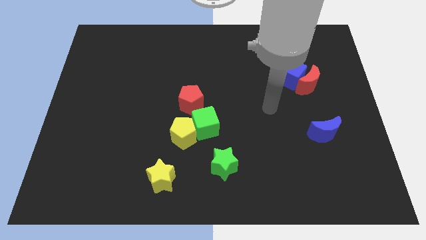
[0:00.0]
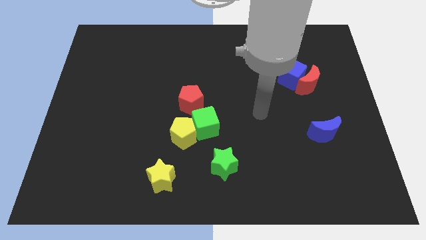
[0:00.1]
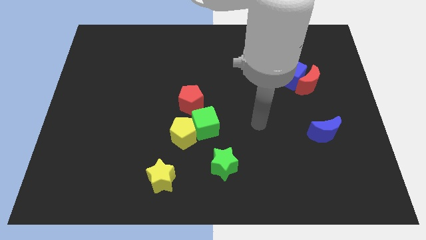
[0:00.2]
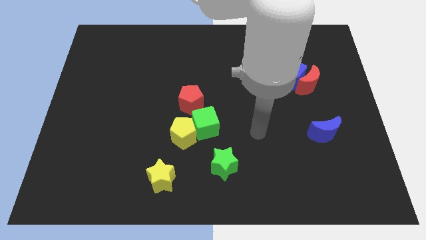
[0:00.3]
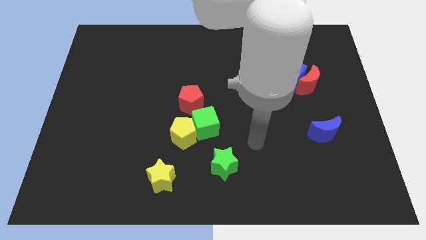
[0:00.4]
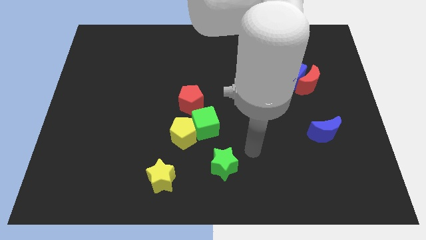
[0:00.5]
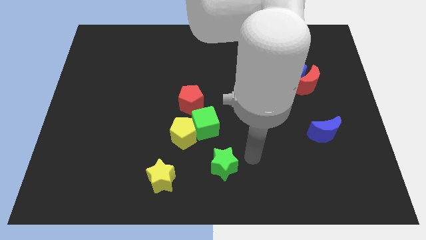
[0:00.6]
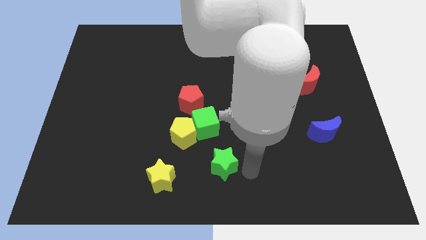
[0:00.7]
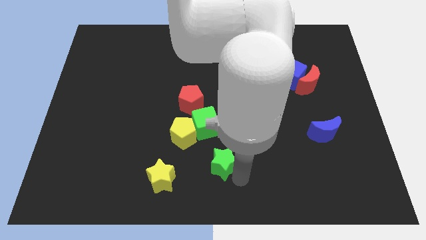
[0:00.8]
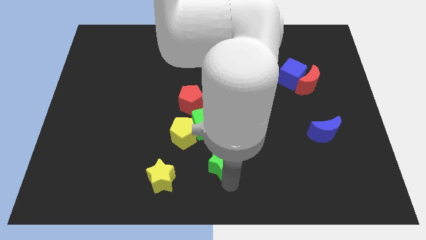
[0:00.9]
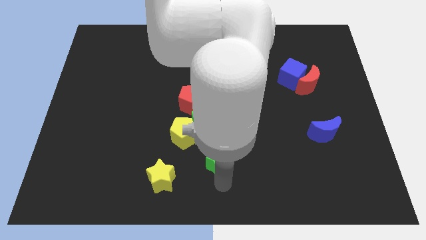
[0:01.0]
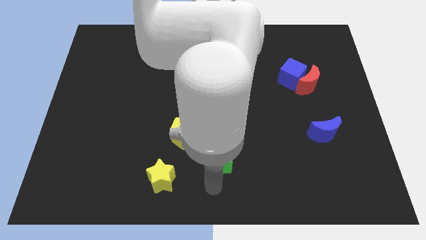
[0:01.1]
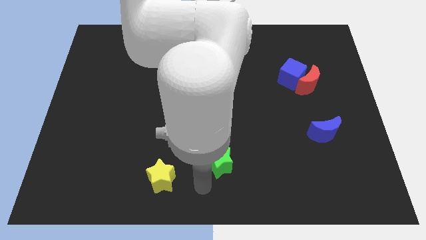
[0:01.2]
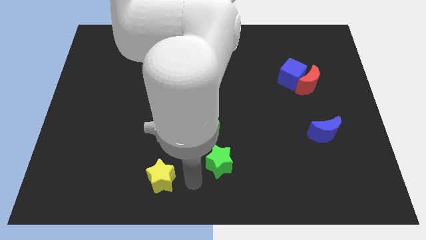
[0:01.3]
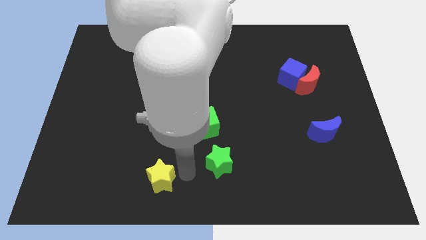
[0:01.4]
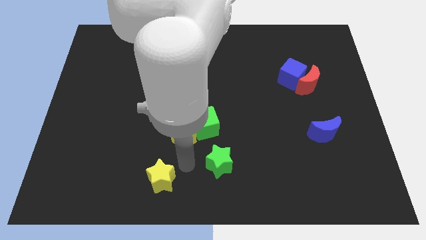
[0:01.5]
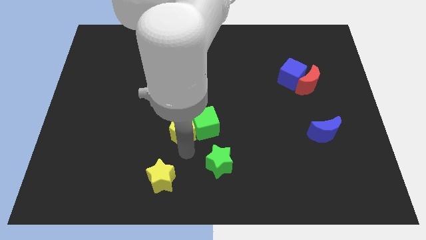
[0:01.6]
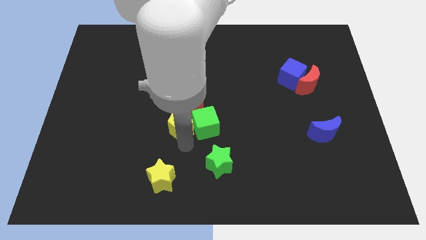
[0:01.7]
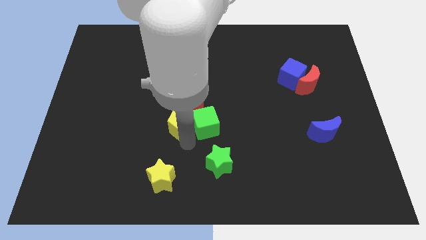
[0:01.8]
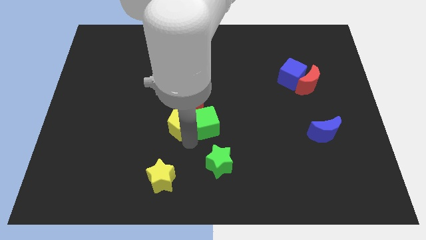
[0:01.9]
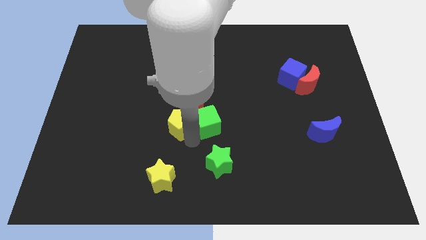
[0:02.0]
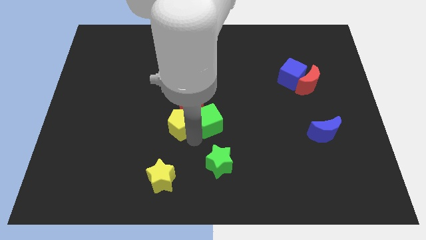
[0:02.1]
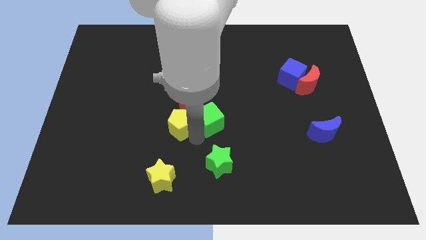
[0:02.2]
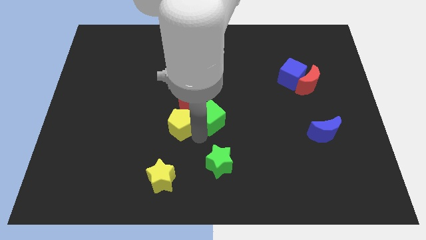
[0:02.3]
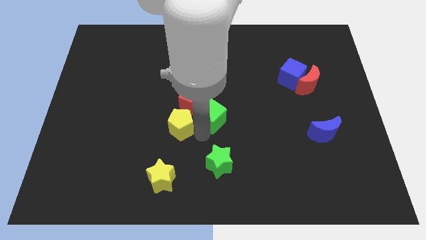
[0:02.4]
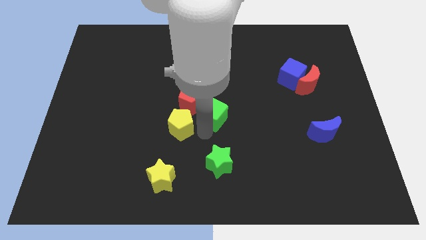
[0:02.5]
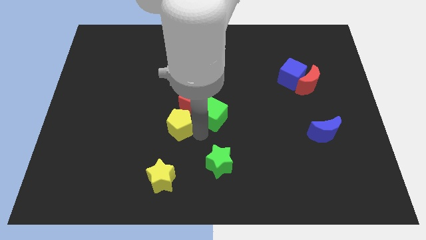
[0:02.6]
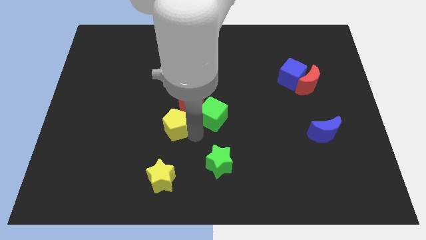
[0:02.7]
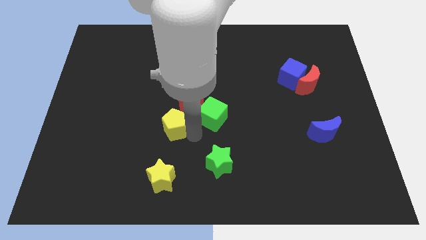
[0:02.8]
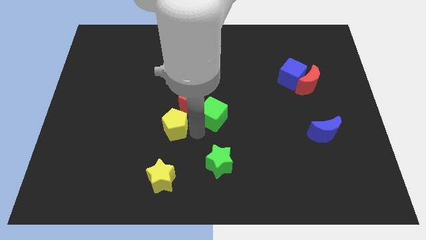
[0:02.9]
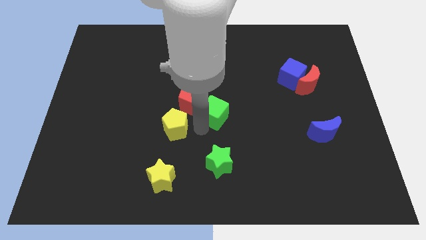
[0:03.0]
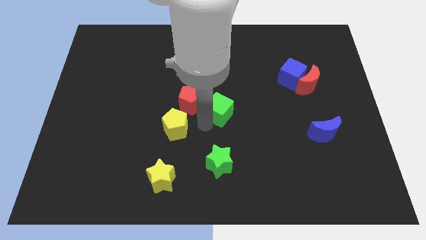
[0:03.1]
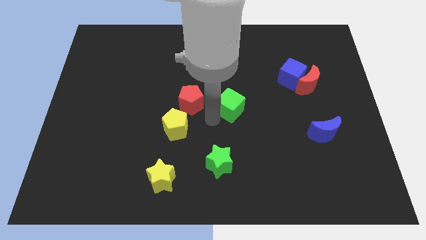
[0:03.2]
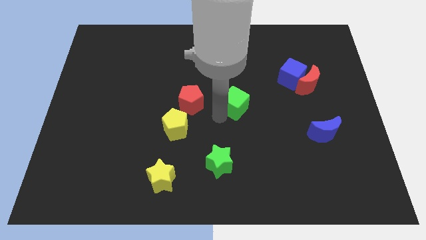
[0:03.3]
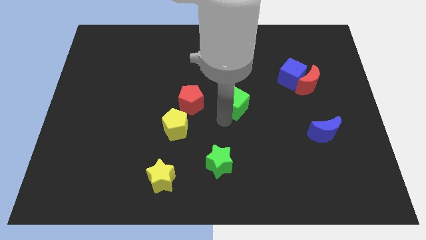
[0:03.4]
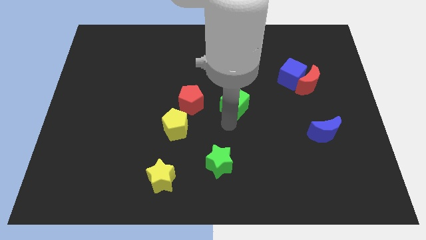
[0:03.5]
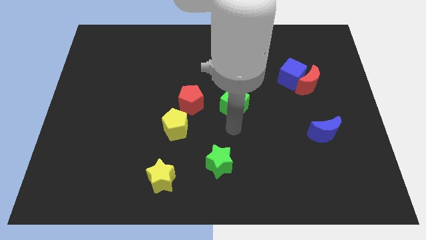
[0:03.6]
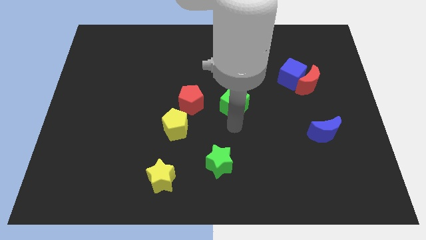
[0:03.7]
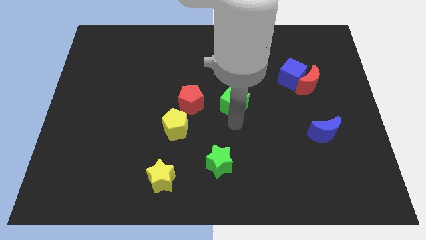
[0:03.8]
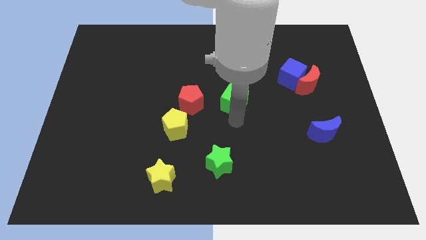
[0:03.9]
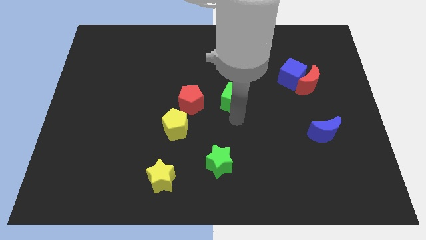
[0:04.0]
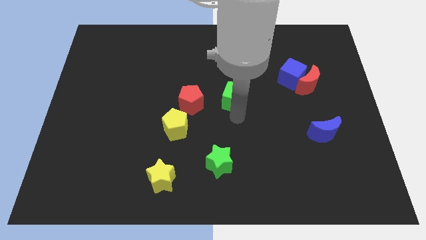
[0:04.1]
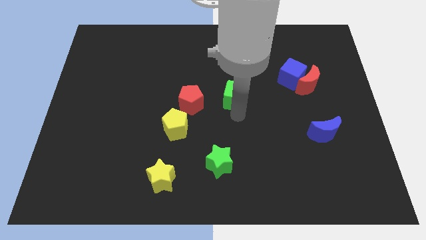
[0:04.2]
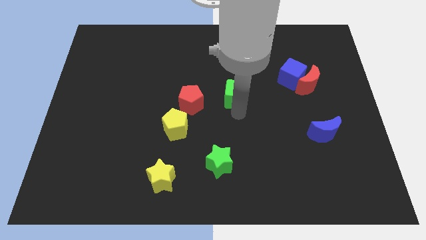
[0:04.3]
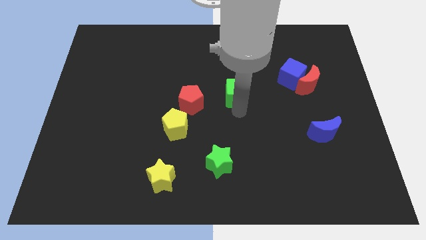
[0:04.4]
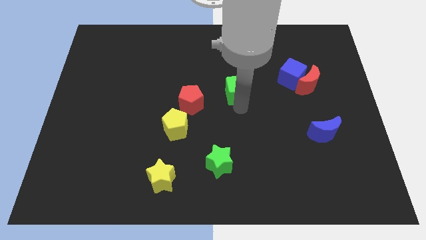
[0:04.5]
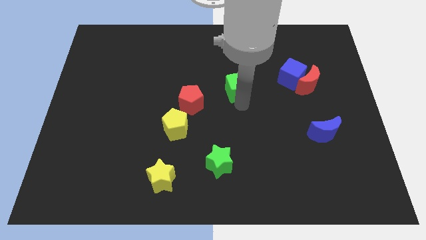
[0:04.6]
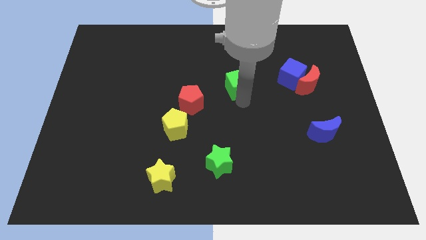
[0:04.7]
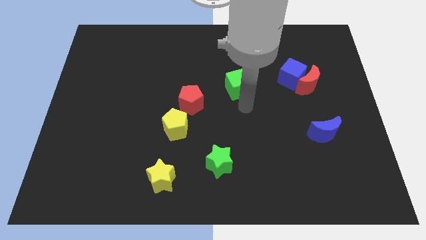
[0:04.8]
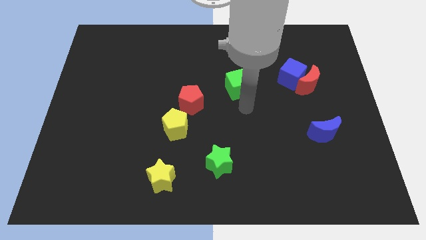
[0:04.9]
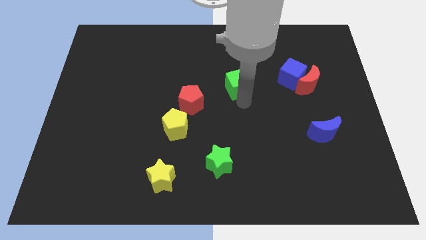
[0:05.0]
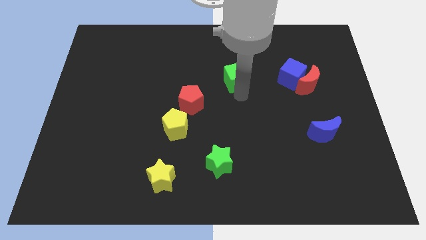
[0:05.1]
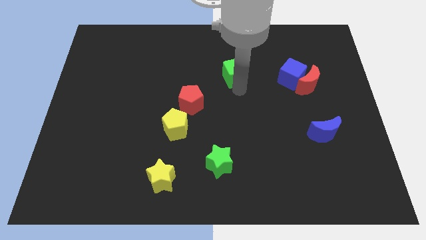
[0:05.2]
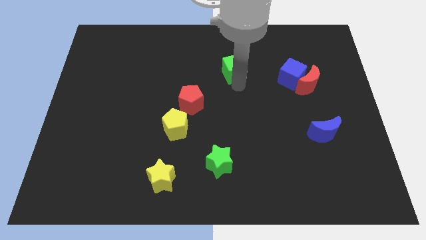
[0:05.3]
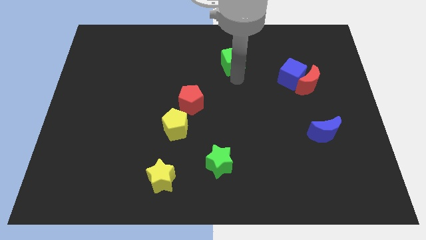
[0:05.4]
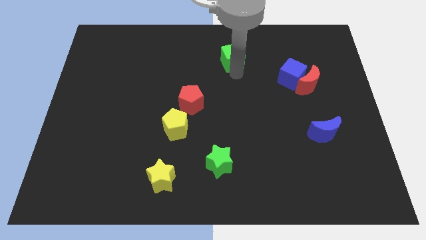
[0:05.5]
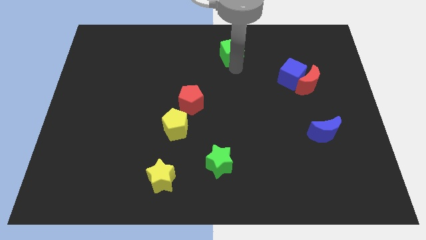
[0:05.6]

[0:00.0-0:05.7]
put the green cube to the top side

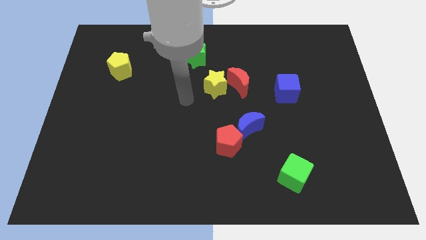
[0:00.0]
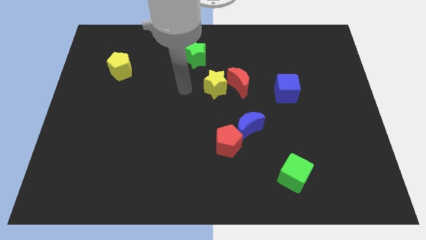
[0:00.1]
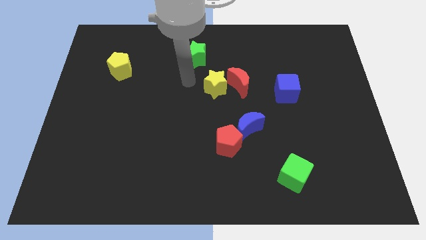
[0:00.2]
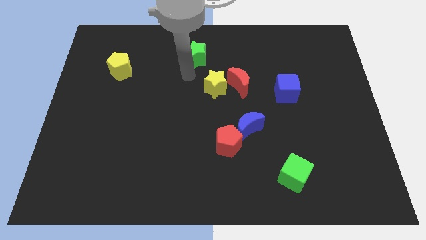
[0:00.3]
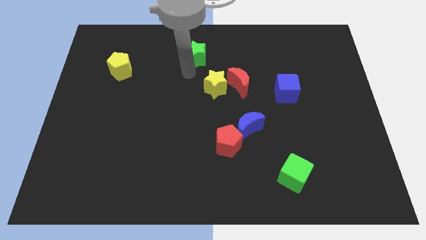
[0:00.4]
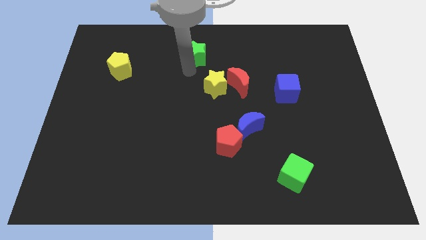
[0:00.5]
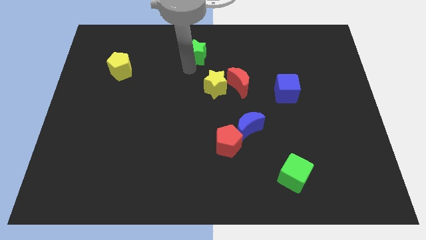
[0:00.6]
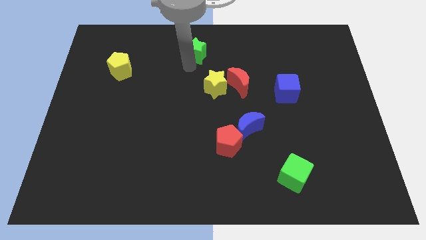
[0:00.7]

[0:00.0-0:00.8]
move the green star to the top
